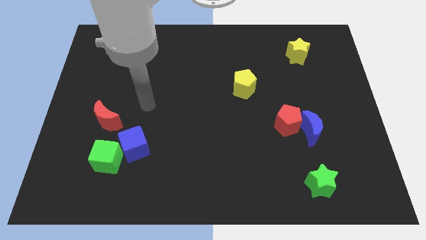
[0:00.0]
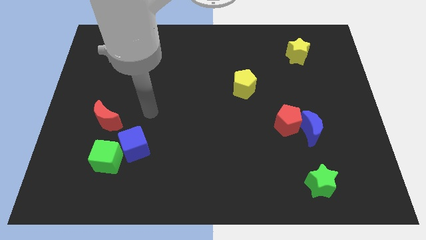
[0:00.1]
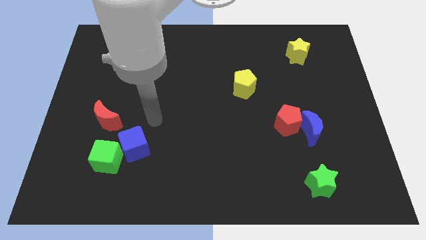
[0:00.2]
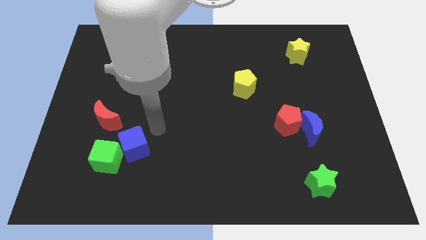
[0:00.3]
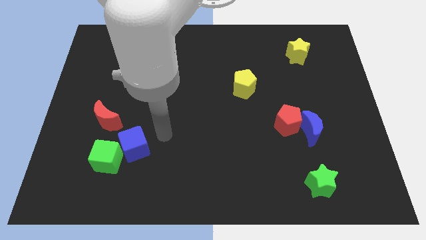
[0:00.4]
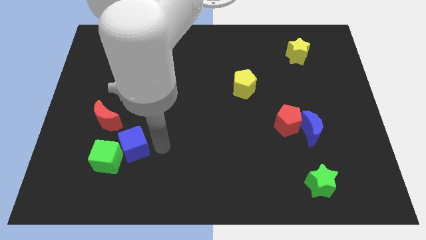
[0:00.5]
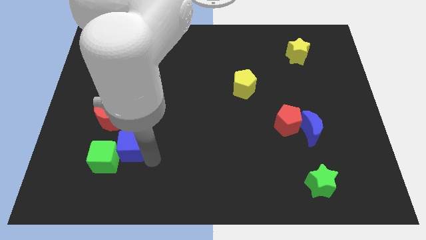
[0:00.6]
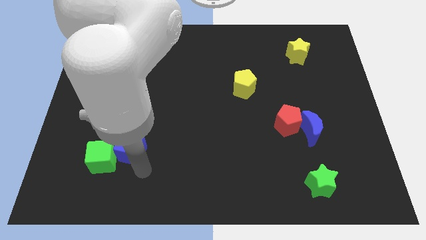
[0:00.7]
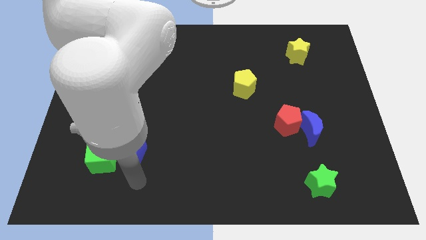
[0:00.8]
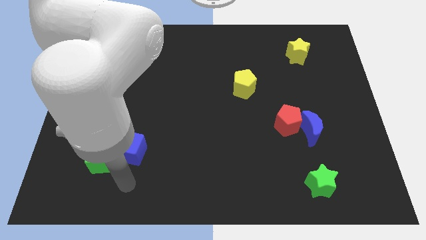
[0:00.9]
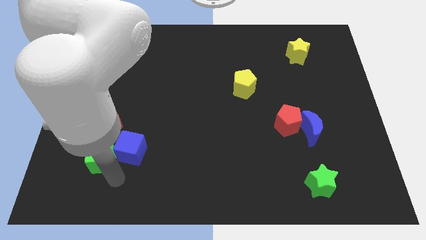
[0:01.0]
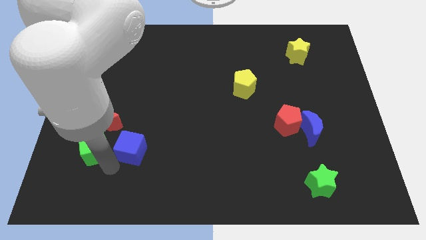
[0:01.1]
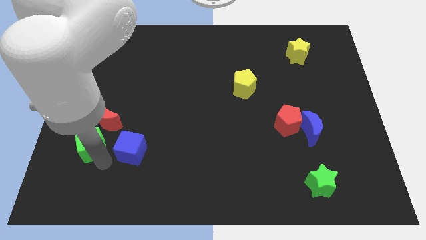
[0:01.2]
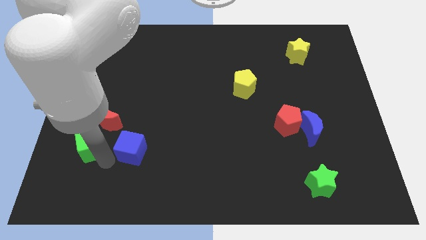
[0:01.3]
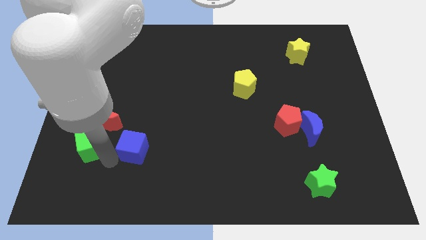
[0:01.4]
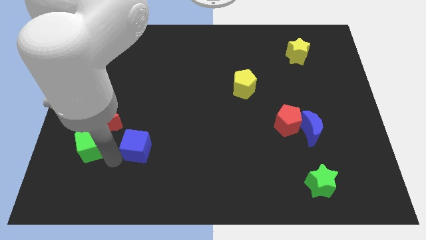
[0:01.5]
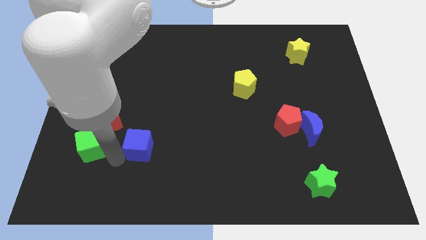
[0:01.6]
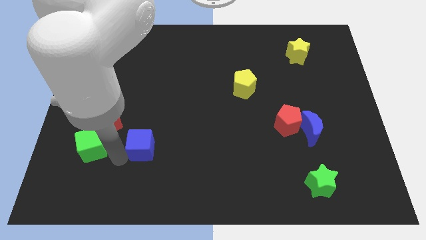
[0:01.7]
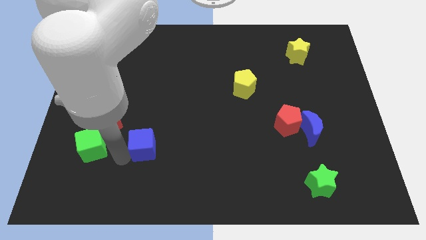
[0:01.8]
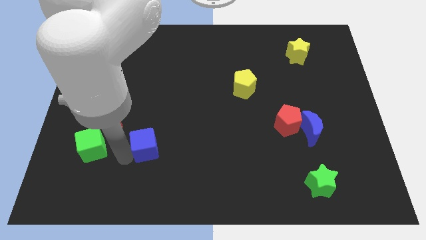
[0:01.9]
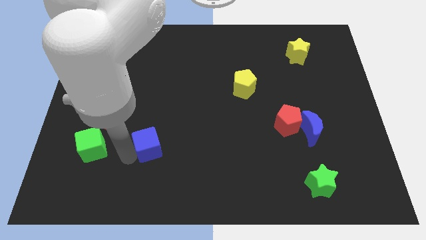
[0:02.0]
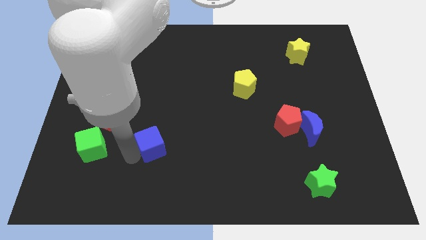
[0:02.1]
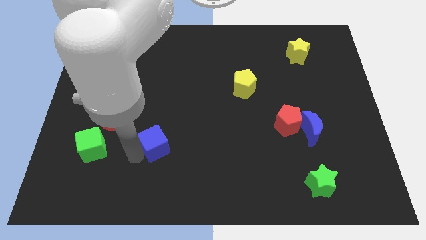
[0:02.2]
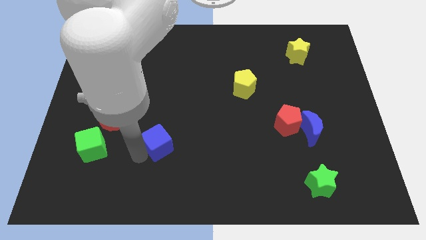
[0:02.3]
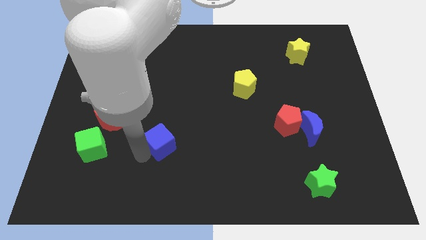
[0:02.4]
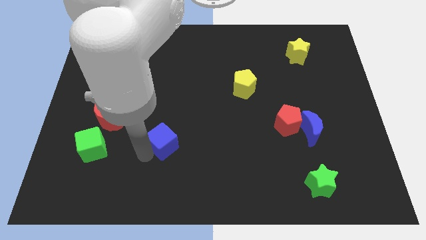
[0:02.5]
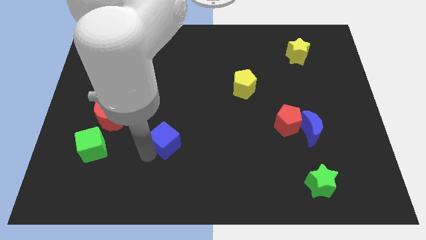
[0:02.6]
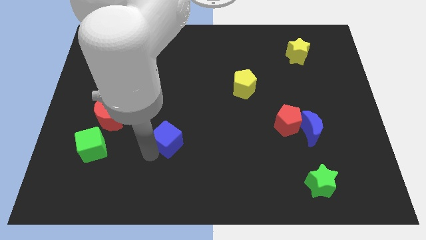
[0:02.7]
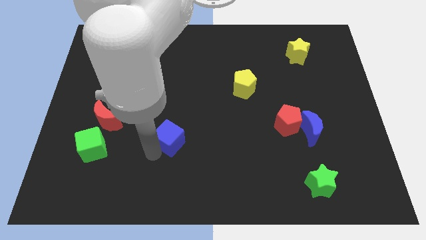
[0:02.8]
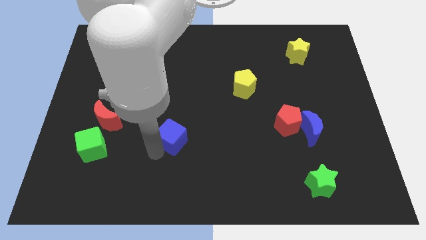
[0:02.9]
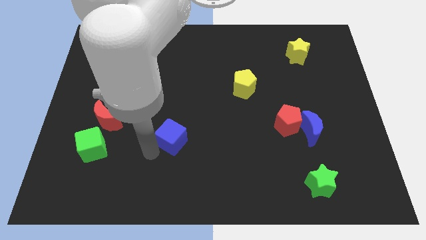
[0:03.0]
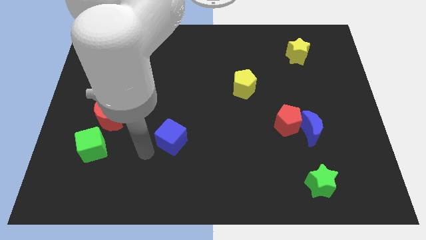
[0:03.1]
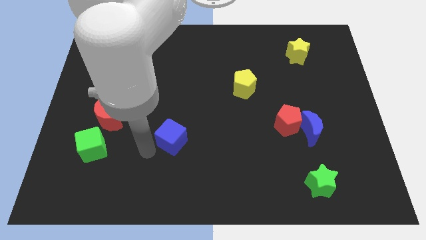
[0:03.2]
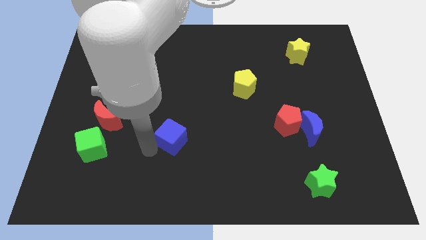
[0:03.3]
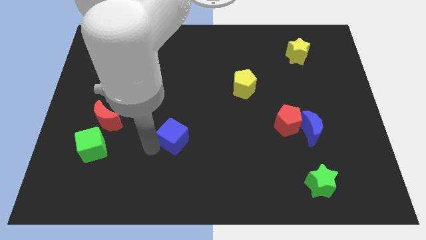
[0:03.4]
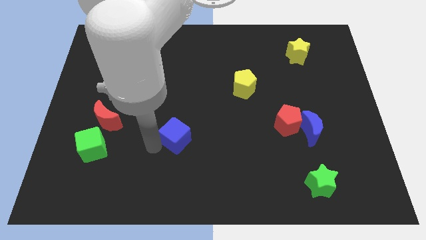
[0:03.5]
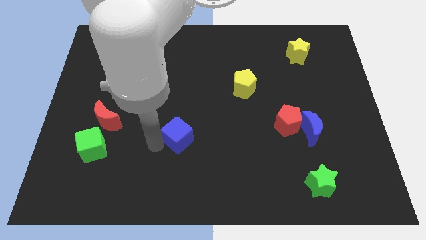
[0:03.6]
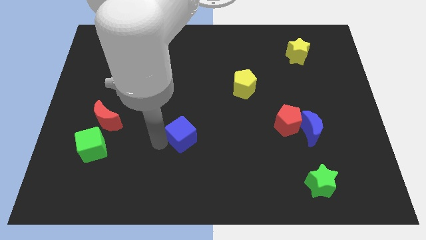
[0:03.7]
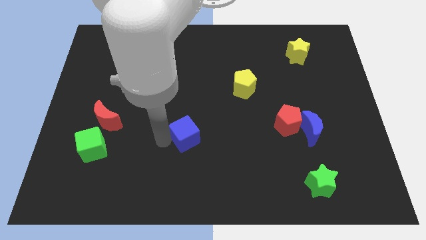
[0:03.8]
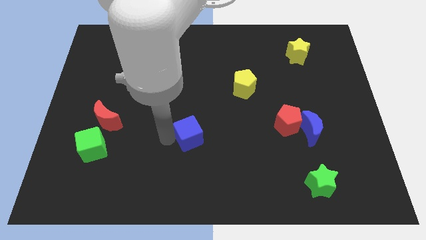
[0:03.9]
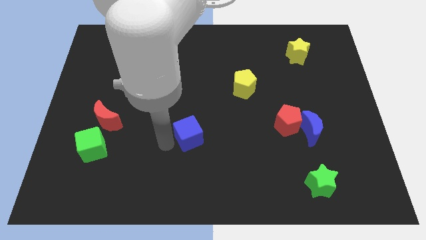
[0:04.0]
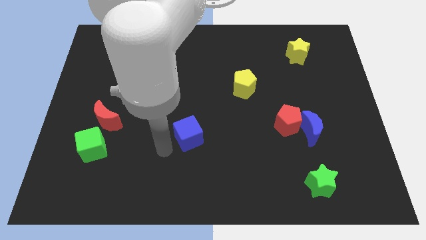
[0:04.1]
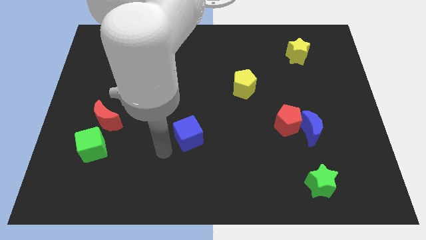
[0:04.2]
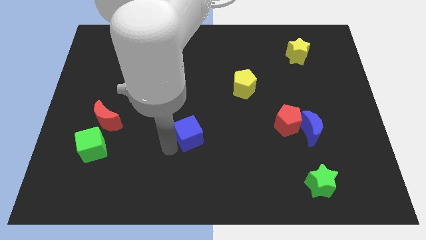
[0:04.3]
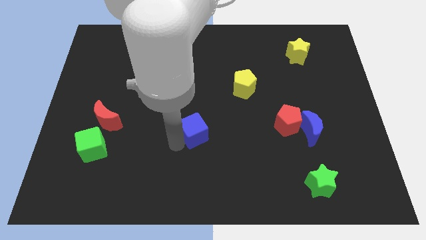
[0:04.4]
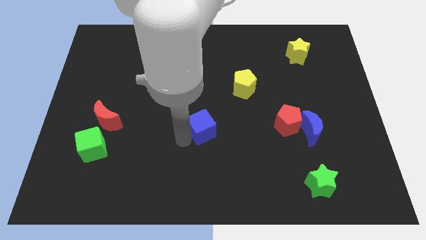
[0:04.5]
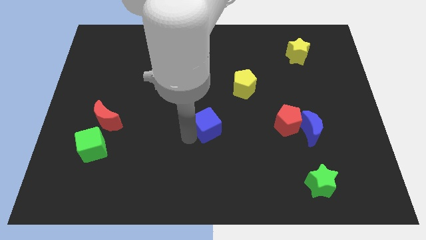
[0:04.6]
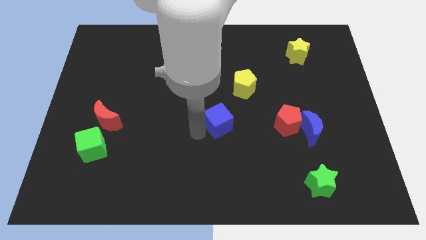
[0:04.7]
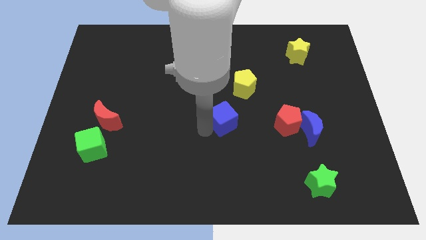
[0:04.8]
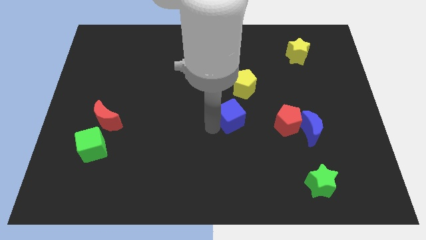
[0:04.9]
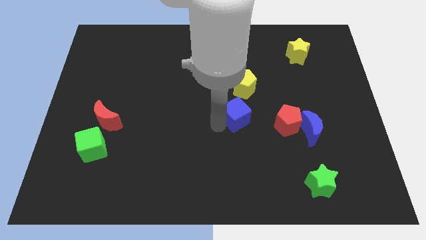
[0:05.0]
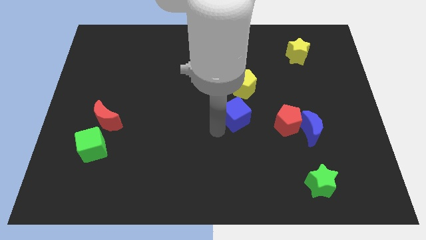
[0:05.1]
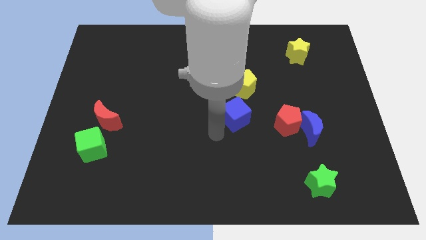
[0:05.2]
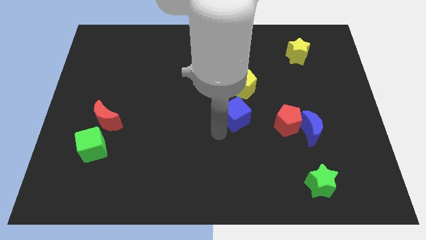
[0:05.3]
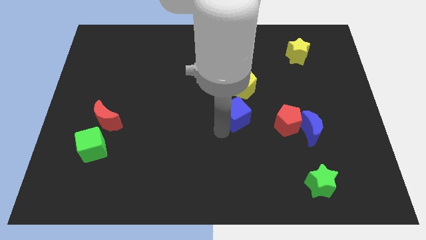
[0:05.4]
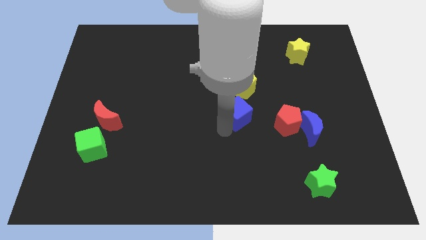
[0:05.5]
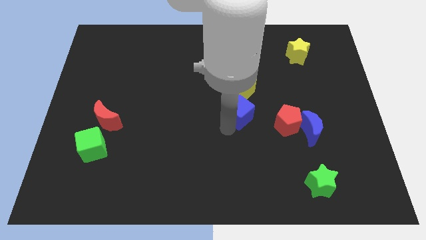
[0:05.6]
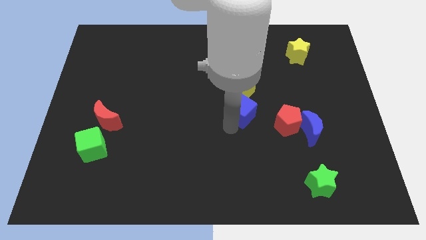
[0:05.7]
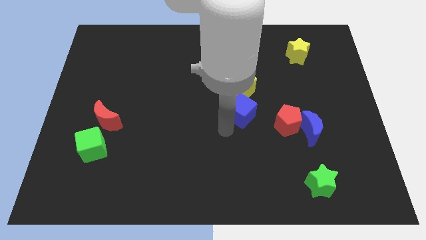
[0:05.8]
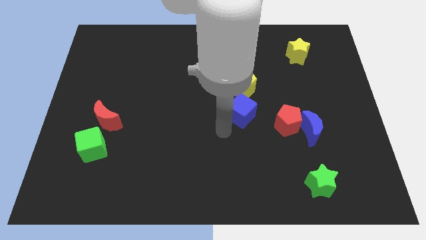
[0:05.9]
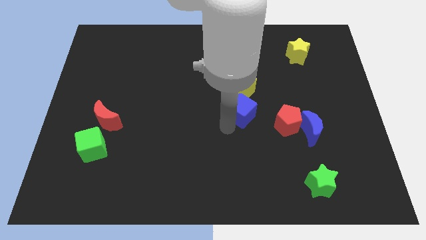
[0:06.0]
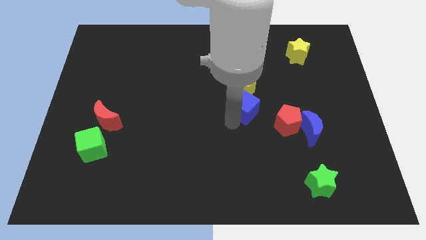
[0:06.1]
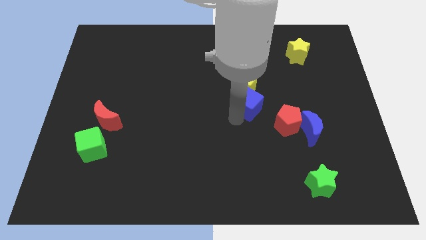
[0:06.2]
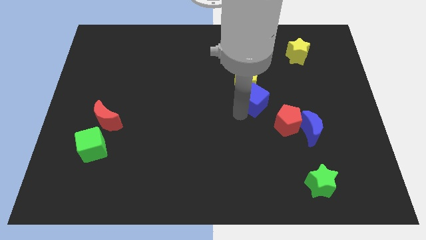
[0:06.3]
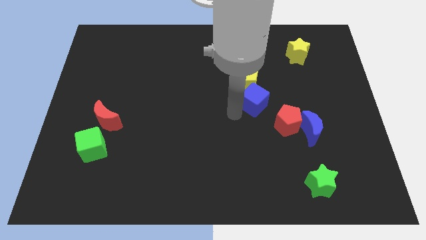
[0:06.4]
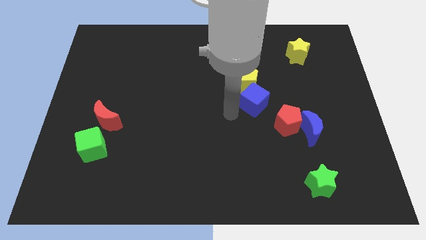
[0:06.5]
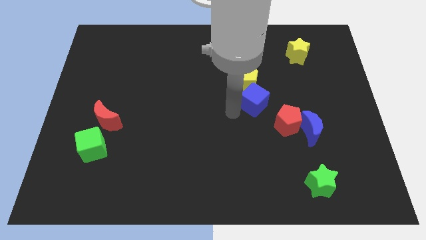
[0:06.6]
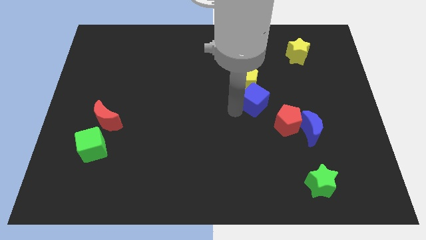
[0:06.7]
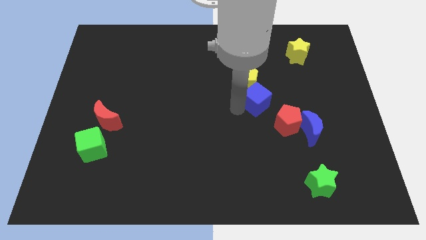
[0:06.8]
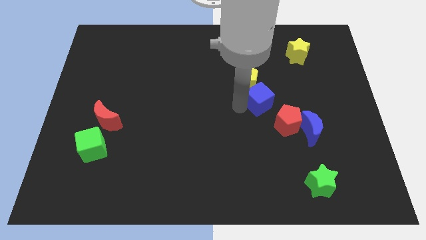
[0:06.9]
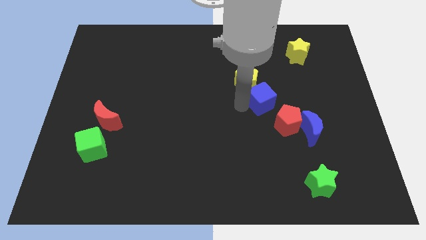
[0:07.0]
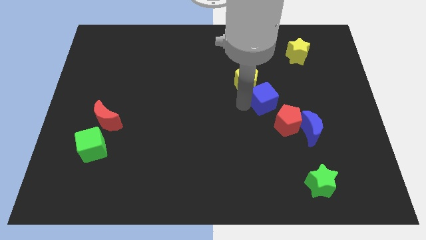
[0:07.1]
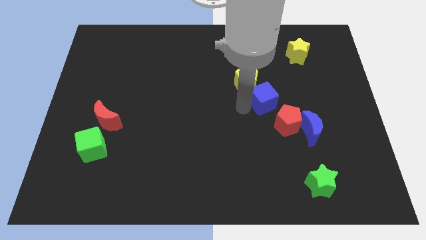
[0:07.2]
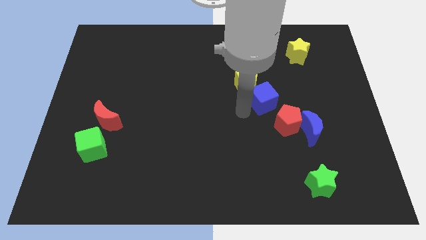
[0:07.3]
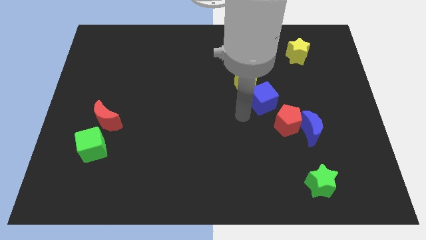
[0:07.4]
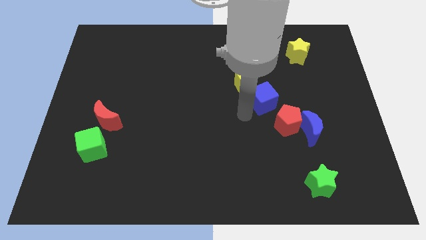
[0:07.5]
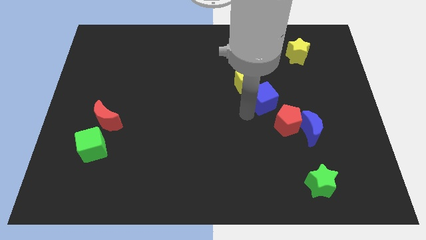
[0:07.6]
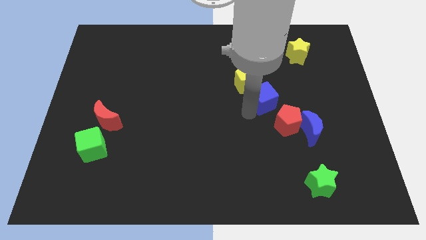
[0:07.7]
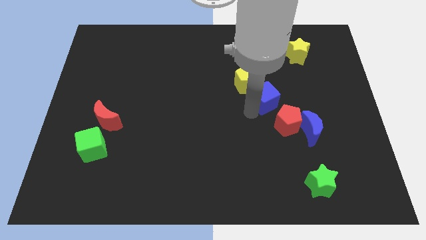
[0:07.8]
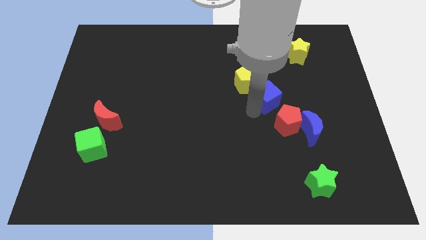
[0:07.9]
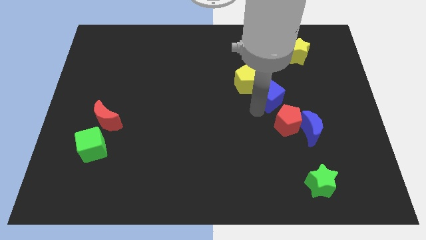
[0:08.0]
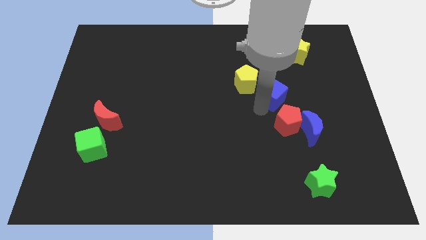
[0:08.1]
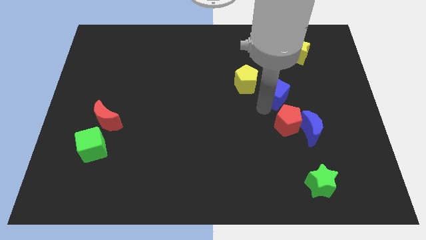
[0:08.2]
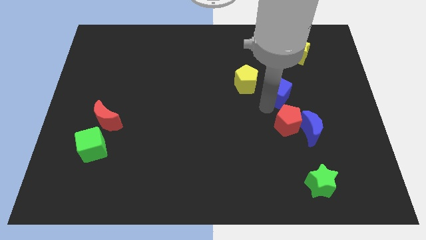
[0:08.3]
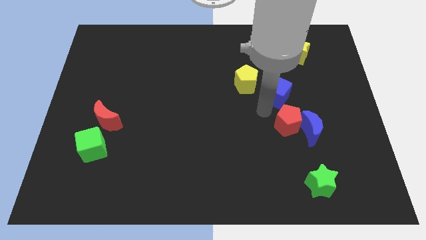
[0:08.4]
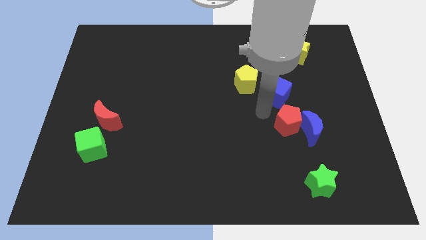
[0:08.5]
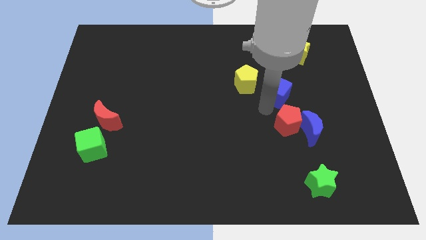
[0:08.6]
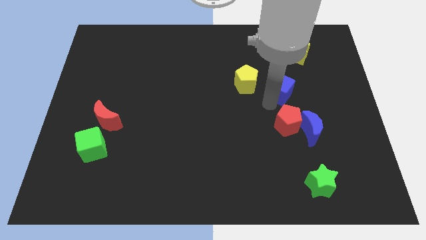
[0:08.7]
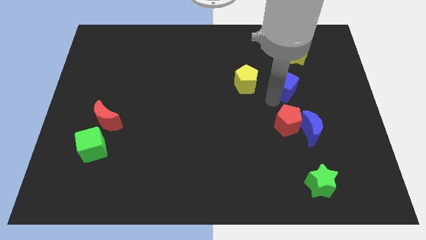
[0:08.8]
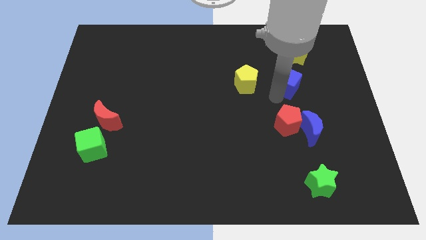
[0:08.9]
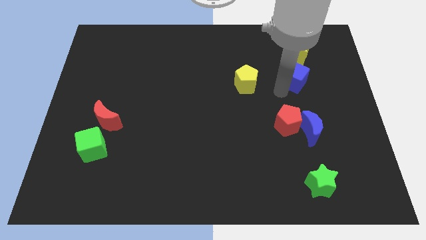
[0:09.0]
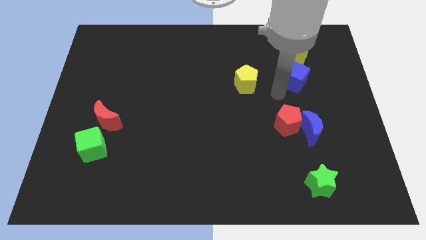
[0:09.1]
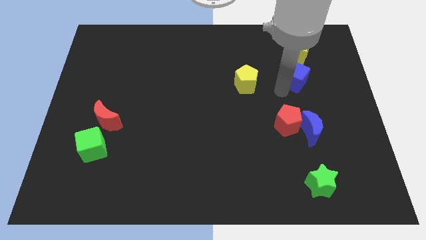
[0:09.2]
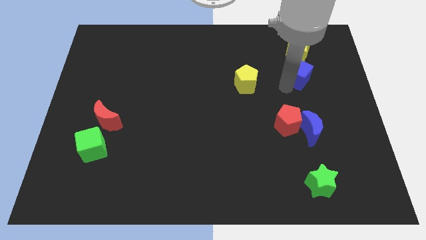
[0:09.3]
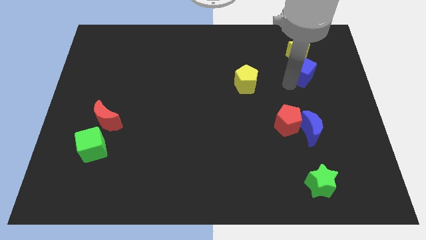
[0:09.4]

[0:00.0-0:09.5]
slide the blue cube to the bottom right of the yellow star
